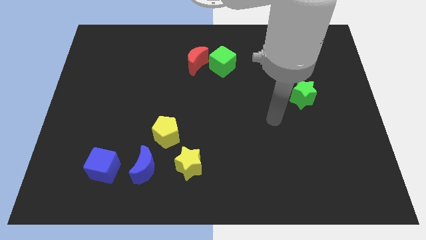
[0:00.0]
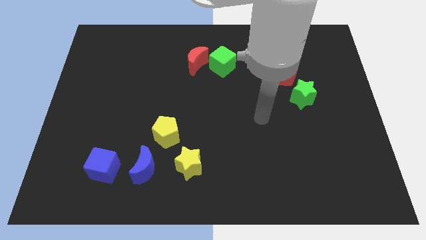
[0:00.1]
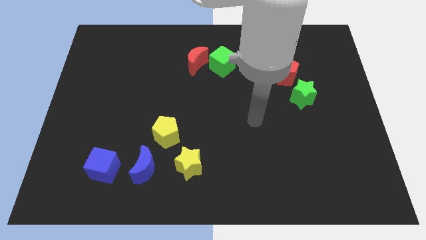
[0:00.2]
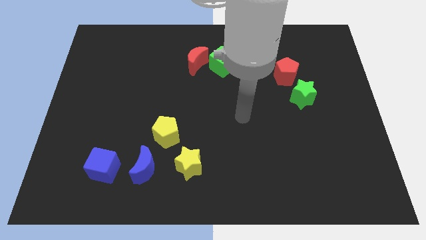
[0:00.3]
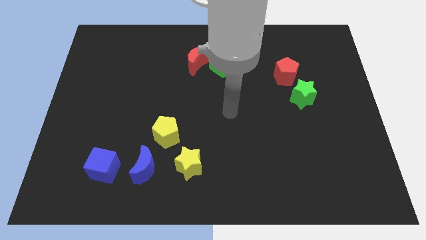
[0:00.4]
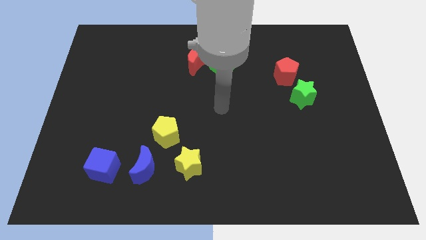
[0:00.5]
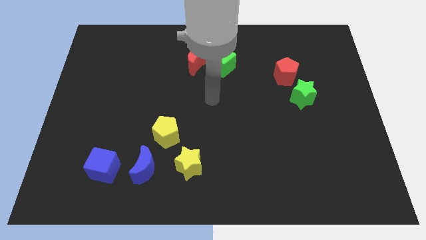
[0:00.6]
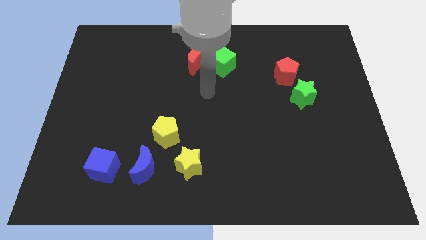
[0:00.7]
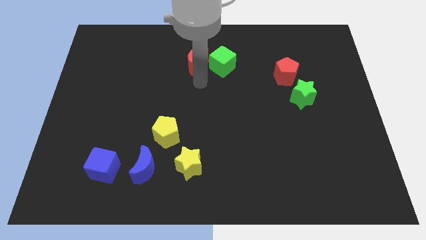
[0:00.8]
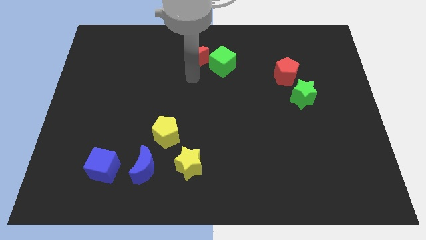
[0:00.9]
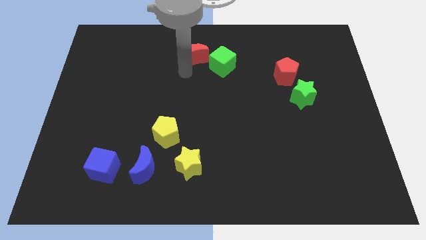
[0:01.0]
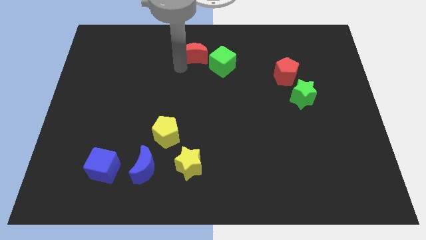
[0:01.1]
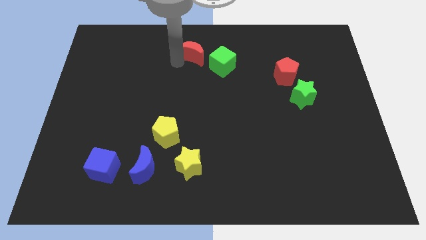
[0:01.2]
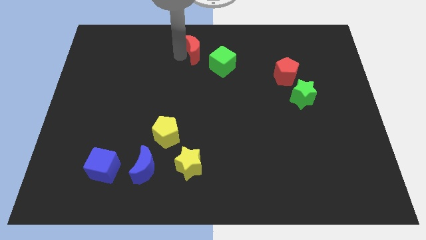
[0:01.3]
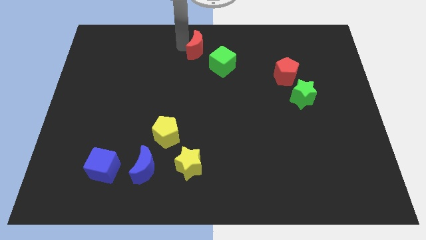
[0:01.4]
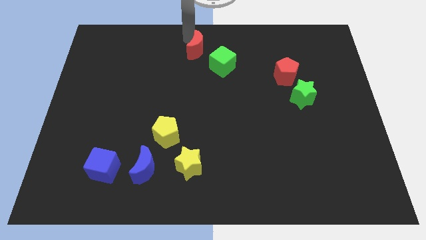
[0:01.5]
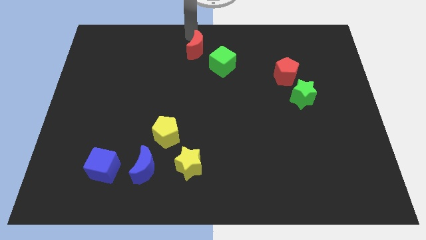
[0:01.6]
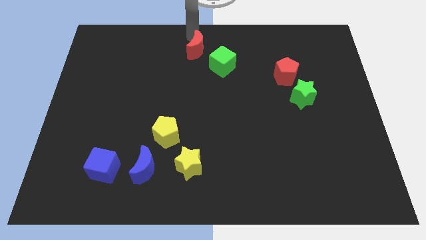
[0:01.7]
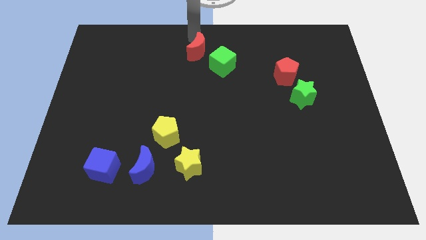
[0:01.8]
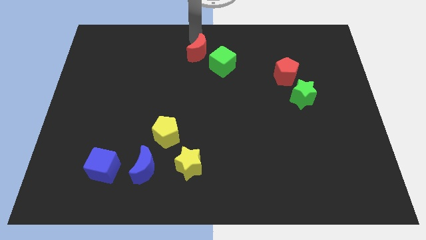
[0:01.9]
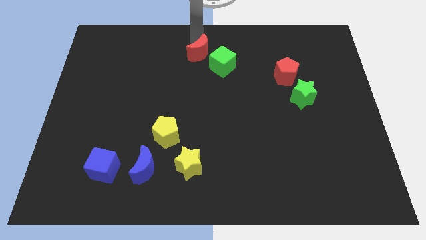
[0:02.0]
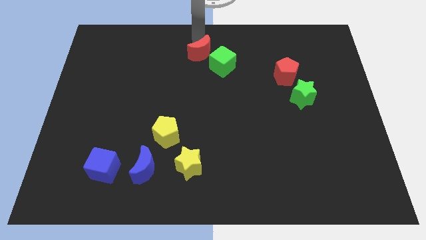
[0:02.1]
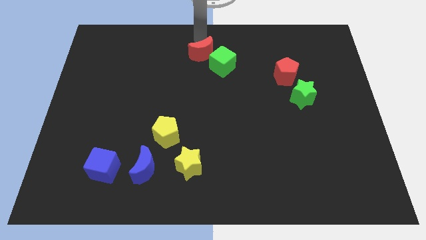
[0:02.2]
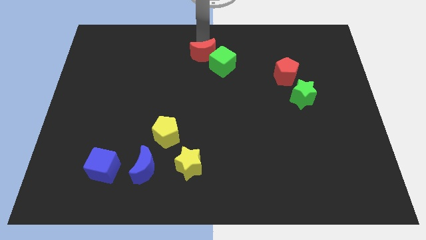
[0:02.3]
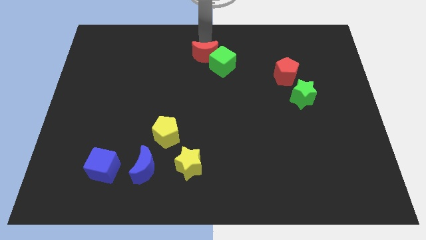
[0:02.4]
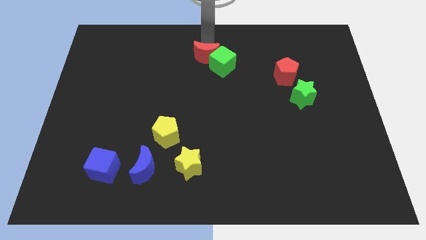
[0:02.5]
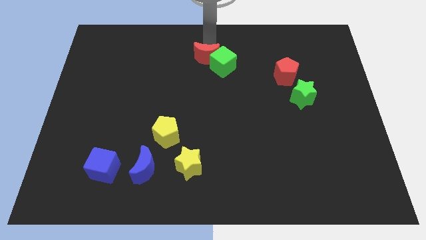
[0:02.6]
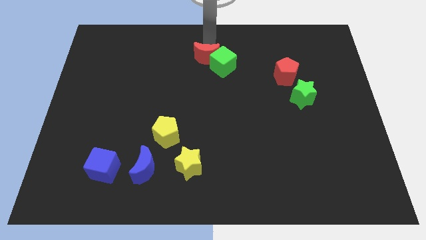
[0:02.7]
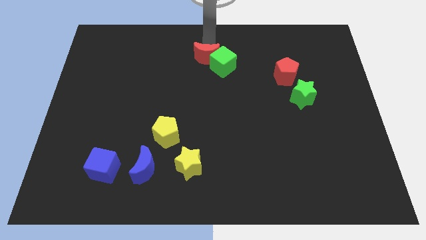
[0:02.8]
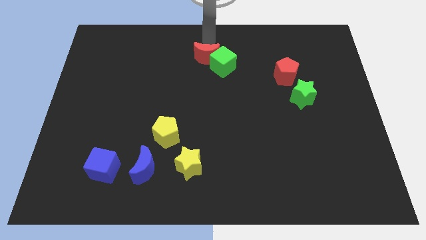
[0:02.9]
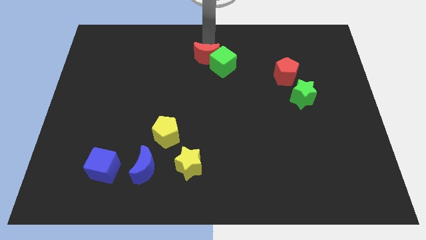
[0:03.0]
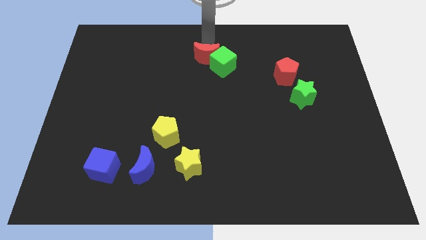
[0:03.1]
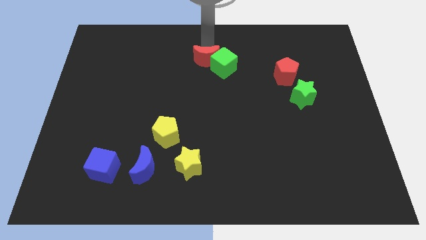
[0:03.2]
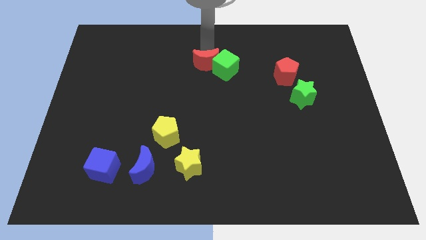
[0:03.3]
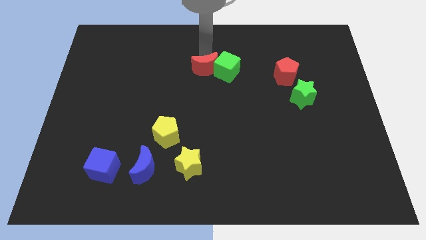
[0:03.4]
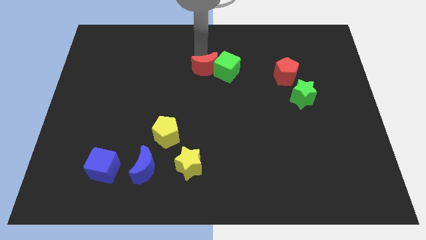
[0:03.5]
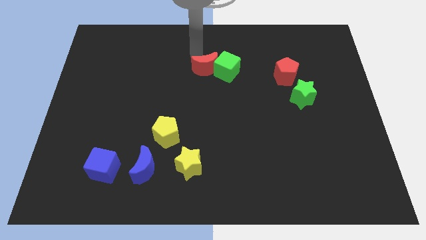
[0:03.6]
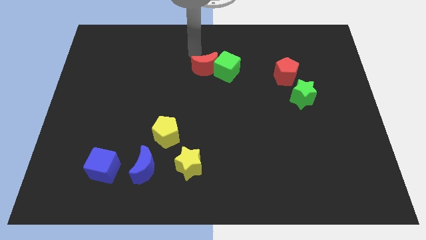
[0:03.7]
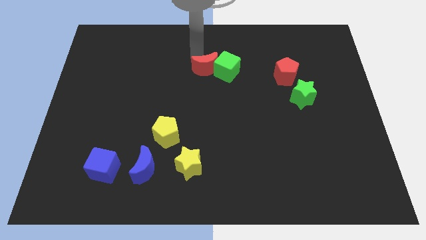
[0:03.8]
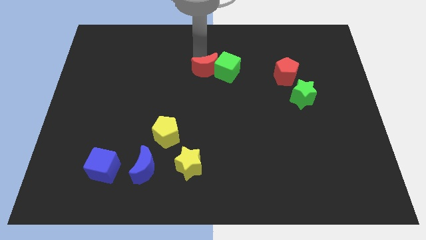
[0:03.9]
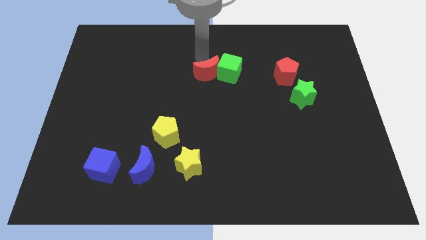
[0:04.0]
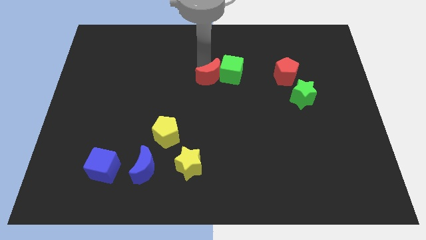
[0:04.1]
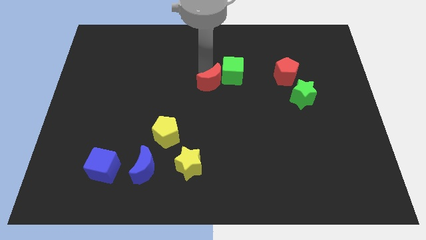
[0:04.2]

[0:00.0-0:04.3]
slide the red moon downwards and to the right slightly

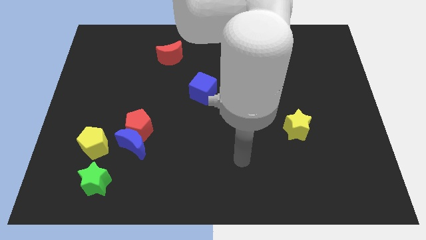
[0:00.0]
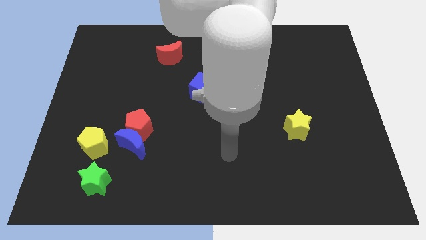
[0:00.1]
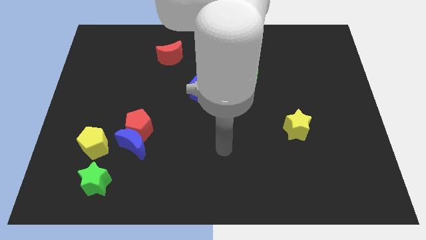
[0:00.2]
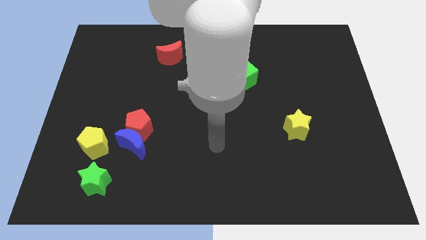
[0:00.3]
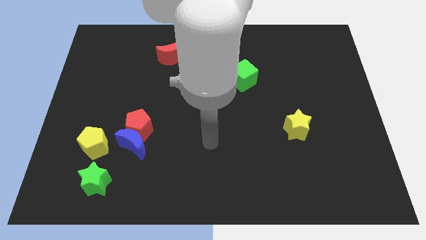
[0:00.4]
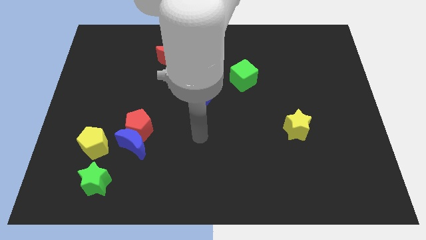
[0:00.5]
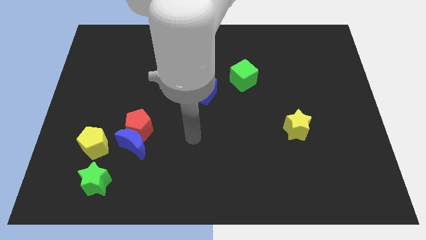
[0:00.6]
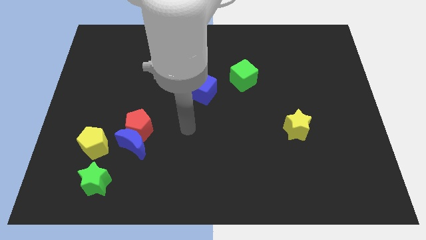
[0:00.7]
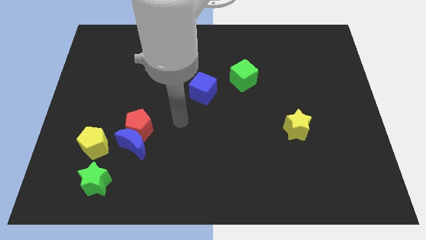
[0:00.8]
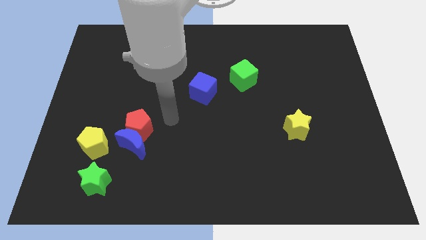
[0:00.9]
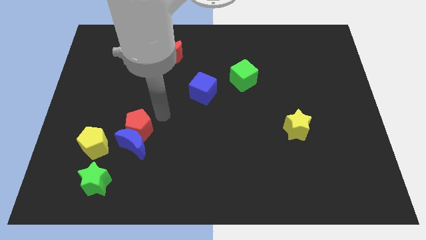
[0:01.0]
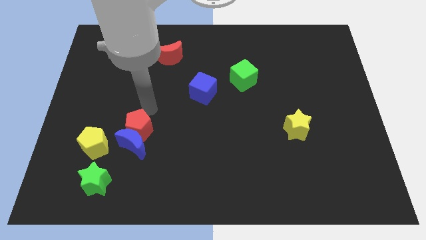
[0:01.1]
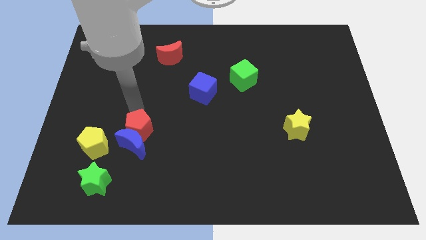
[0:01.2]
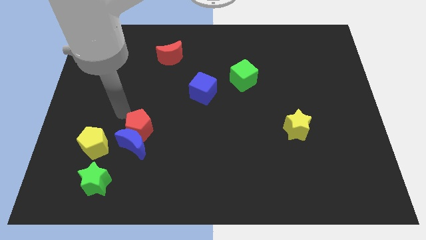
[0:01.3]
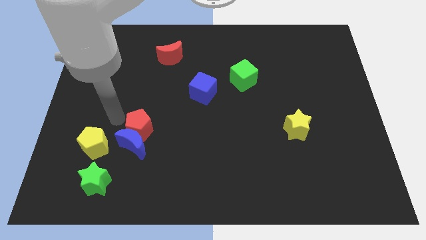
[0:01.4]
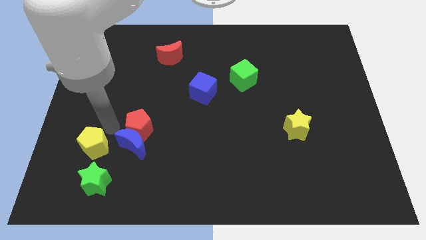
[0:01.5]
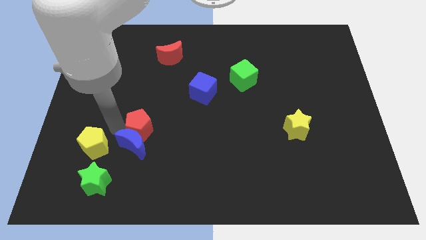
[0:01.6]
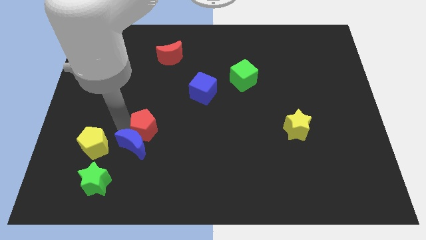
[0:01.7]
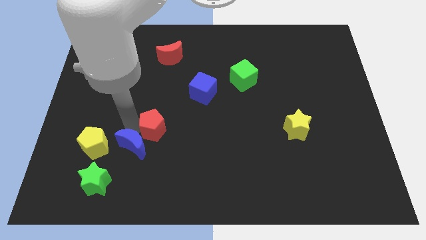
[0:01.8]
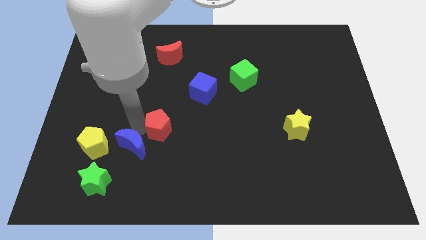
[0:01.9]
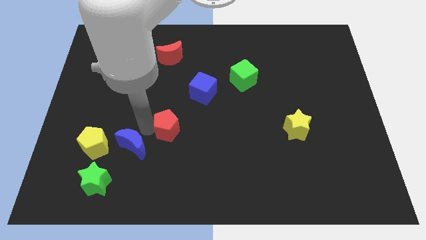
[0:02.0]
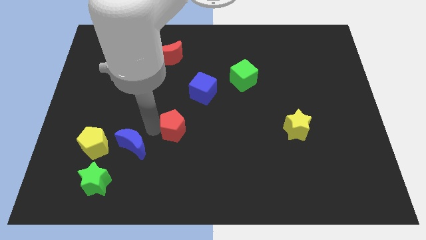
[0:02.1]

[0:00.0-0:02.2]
slightly push the red pentagon to the right

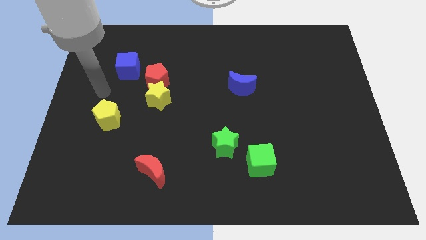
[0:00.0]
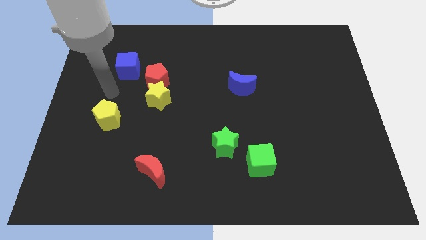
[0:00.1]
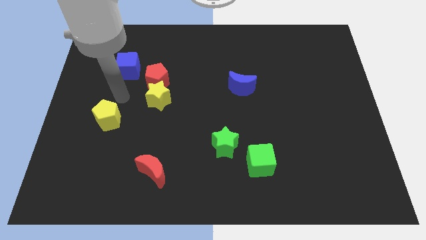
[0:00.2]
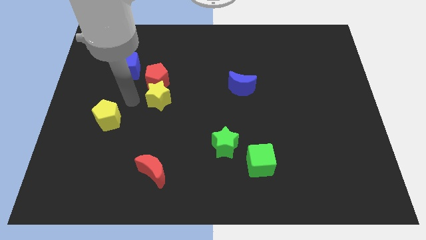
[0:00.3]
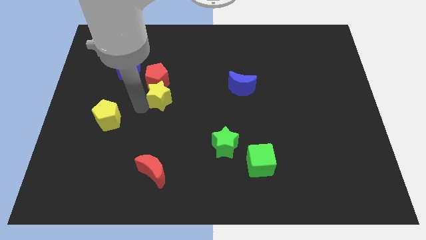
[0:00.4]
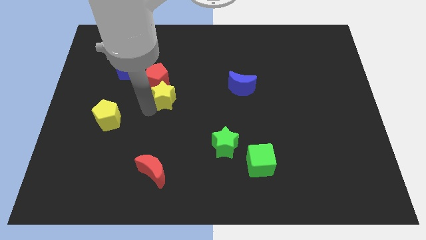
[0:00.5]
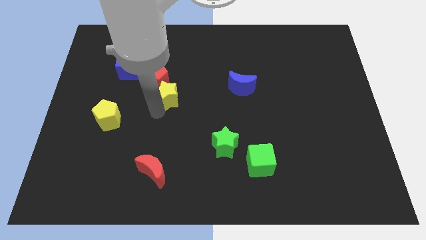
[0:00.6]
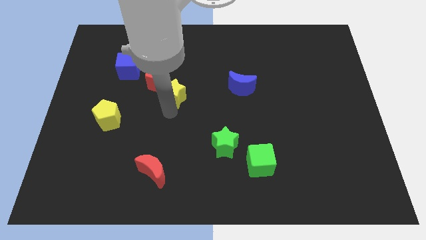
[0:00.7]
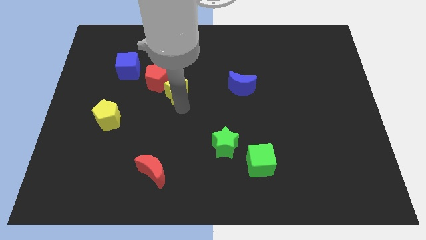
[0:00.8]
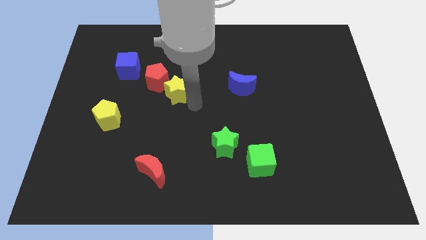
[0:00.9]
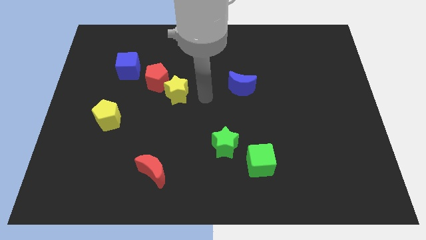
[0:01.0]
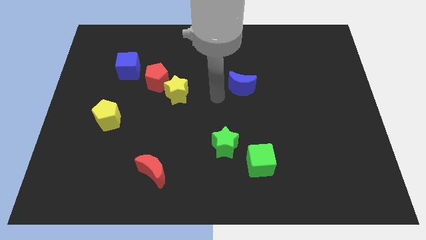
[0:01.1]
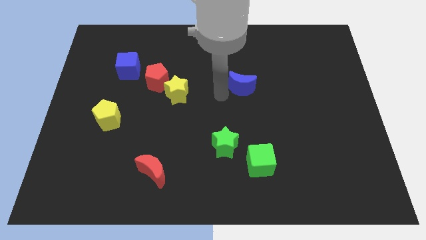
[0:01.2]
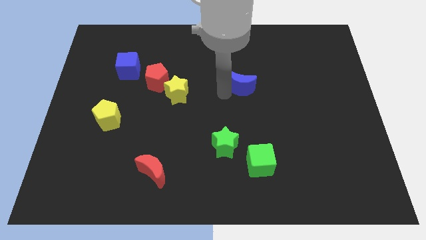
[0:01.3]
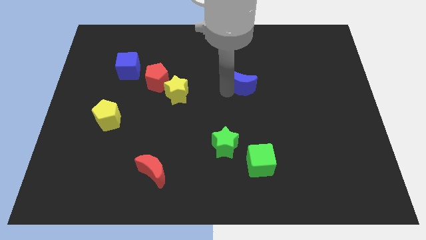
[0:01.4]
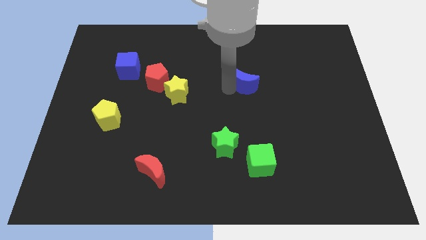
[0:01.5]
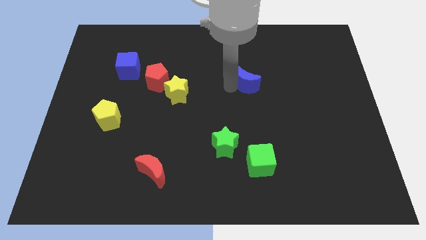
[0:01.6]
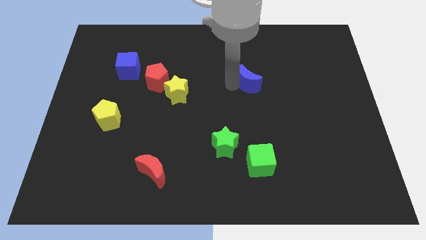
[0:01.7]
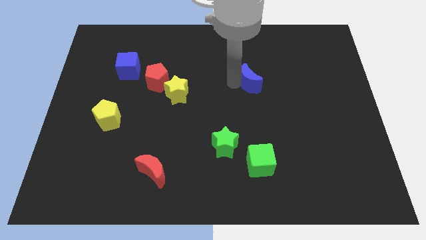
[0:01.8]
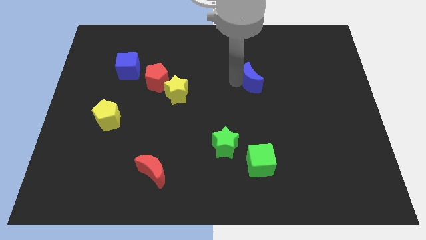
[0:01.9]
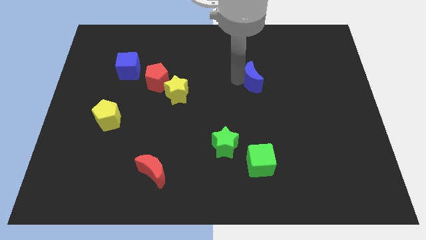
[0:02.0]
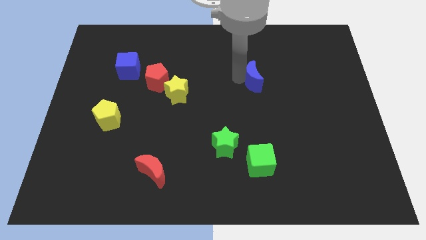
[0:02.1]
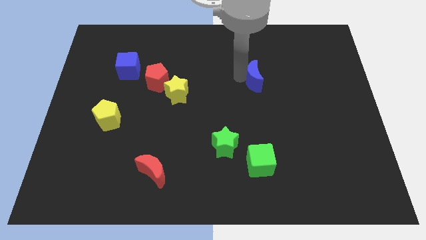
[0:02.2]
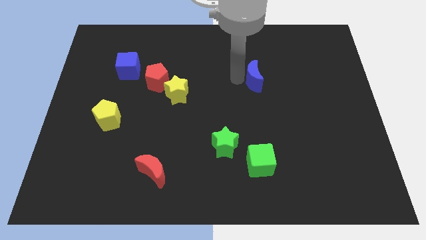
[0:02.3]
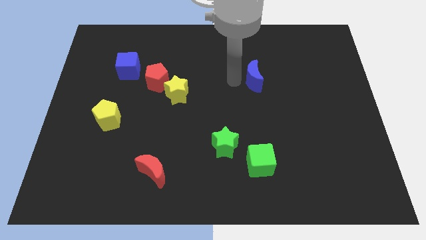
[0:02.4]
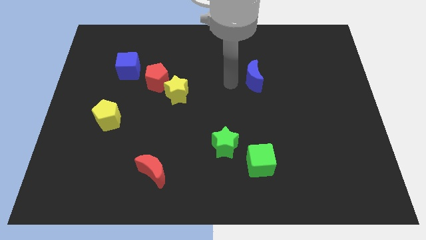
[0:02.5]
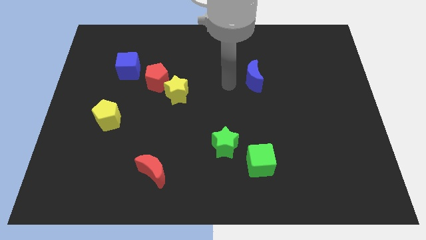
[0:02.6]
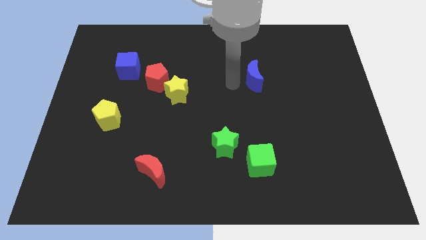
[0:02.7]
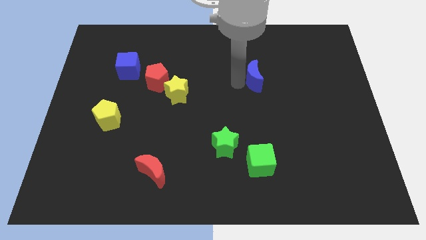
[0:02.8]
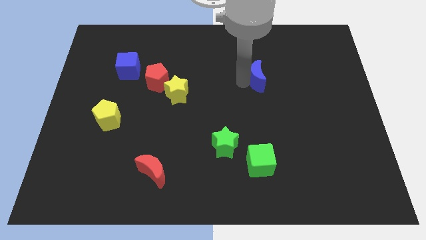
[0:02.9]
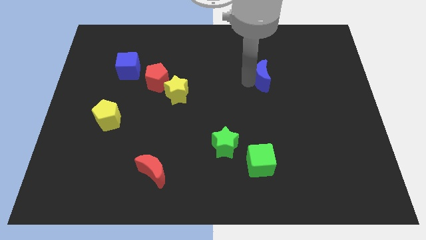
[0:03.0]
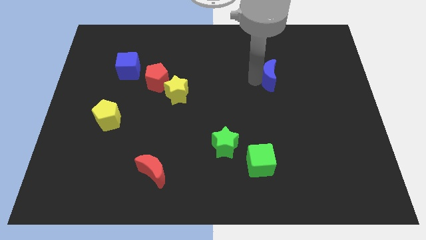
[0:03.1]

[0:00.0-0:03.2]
move the blue moon right a little
